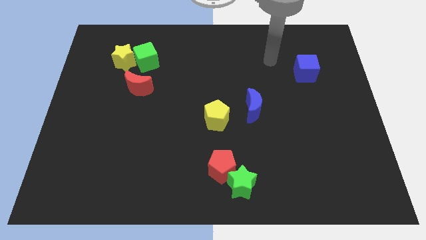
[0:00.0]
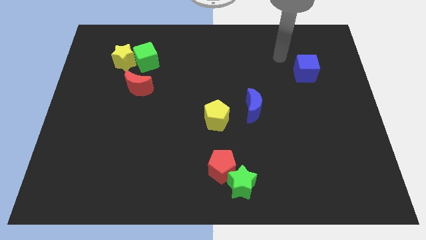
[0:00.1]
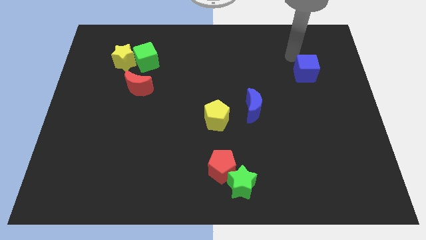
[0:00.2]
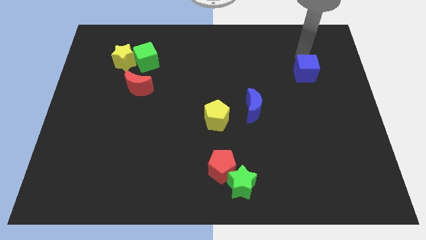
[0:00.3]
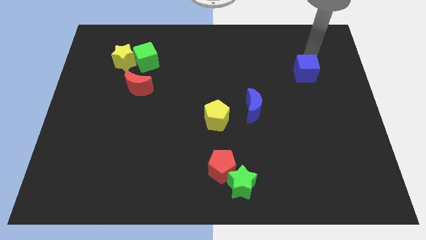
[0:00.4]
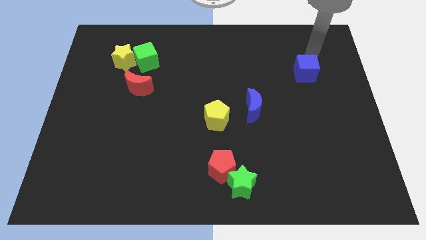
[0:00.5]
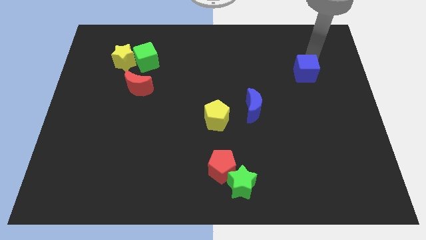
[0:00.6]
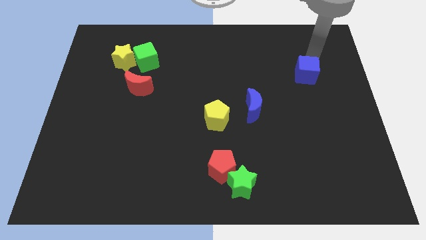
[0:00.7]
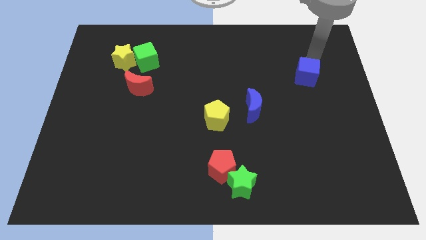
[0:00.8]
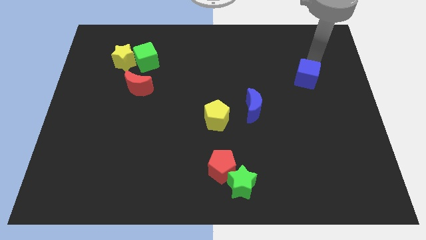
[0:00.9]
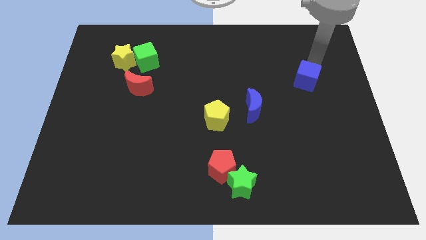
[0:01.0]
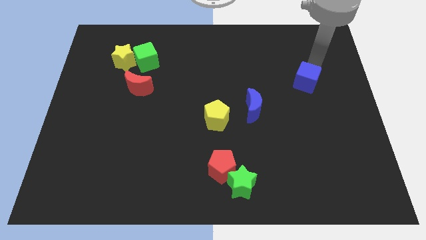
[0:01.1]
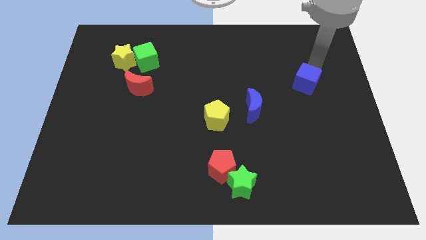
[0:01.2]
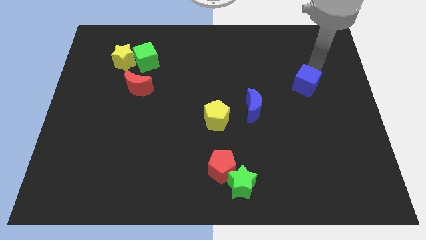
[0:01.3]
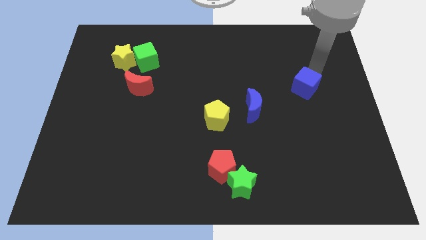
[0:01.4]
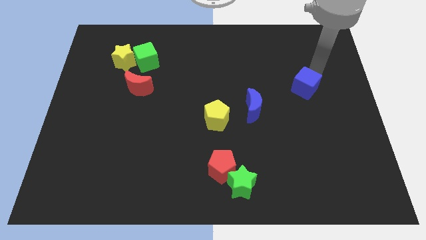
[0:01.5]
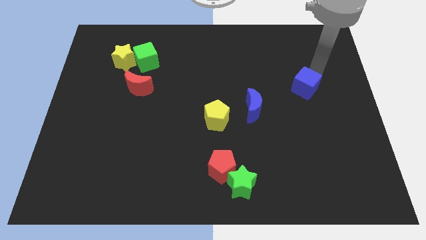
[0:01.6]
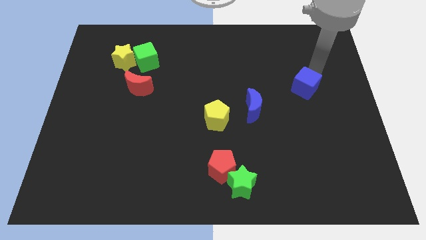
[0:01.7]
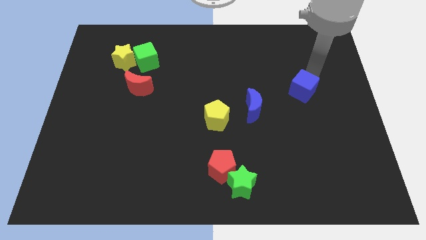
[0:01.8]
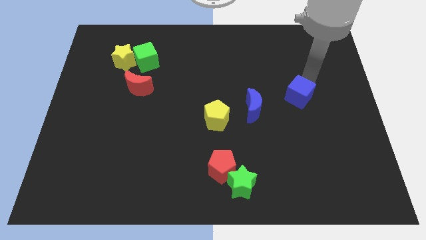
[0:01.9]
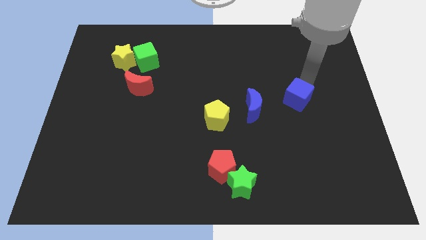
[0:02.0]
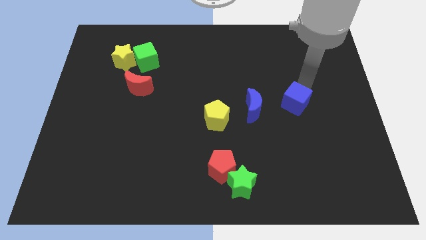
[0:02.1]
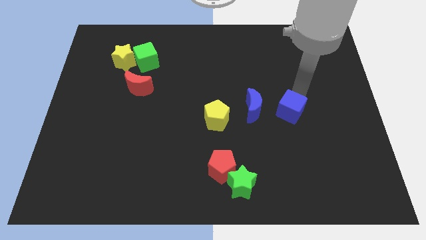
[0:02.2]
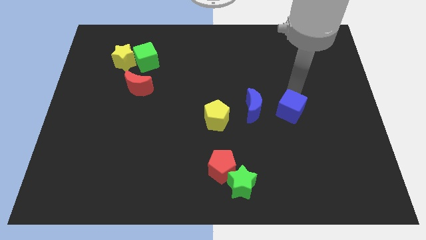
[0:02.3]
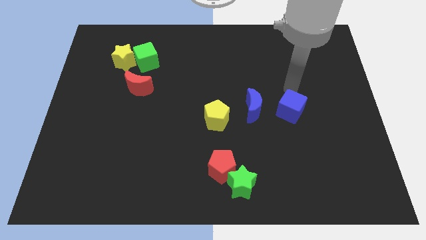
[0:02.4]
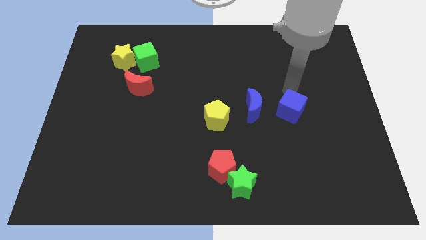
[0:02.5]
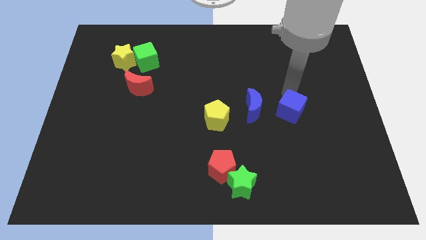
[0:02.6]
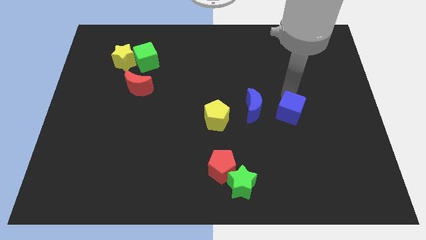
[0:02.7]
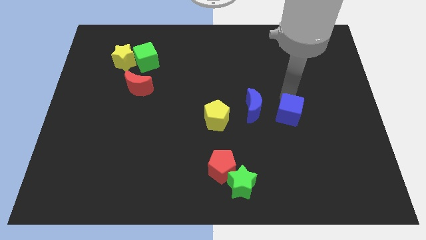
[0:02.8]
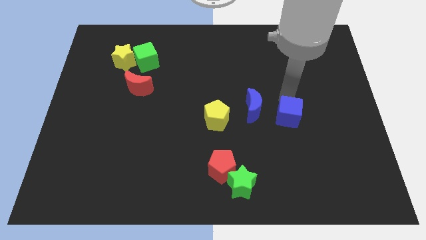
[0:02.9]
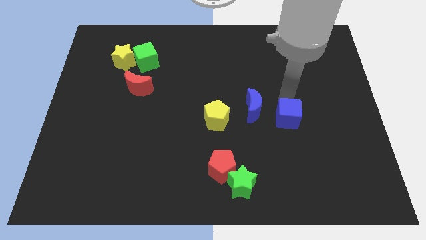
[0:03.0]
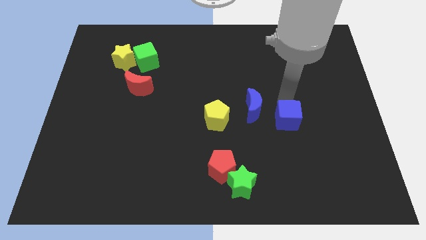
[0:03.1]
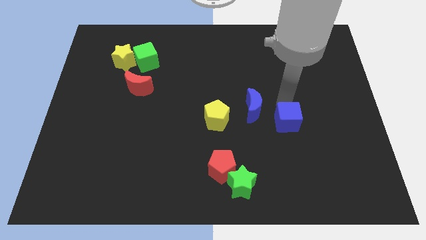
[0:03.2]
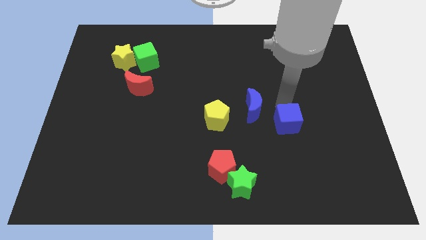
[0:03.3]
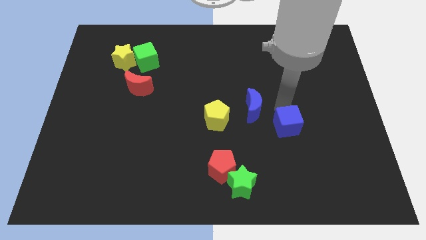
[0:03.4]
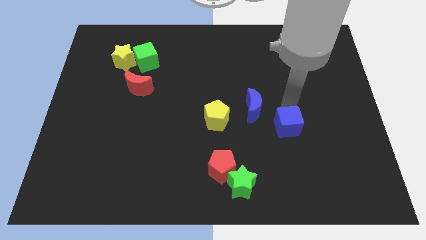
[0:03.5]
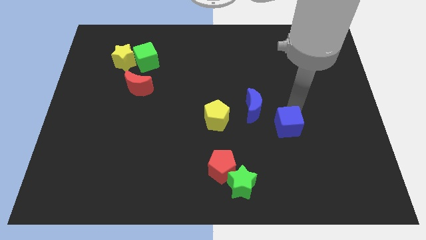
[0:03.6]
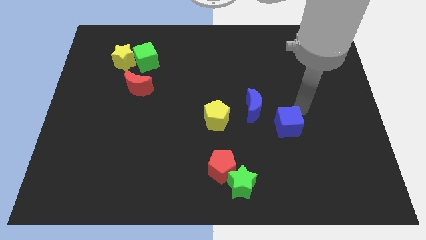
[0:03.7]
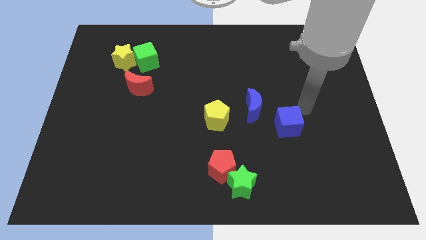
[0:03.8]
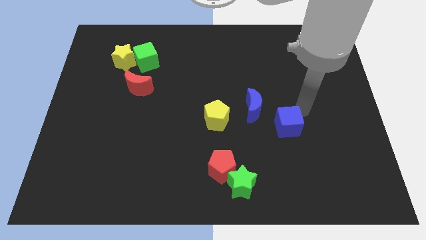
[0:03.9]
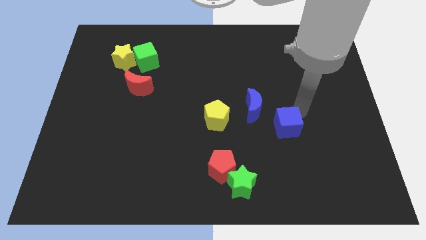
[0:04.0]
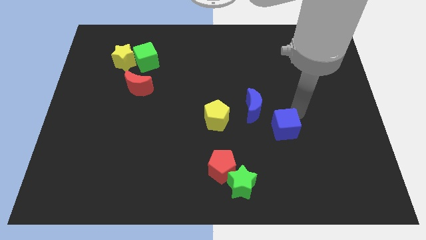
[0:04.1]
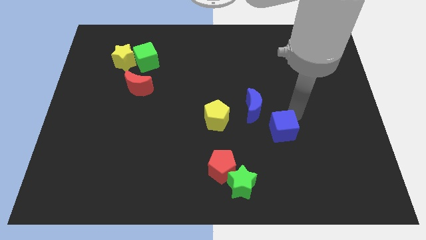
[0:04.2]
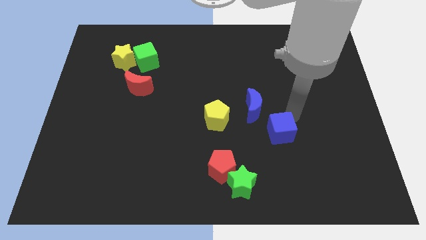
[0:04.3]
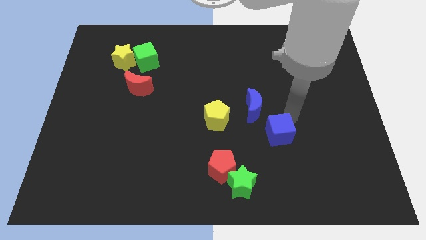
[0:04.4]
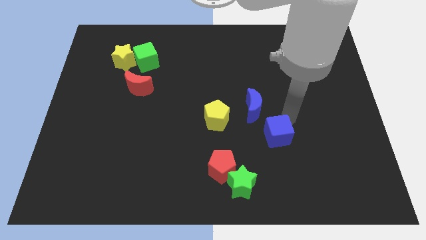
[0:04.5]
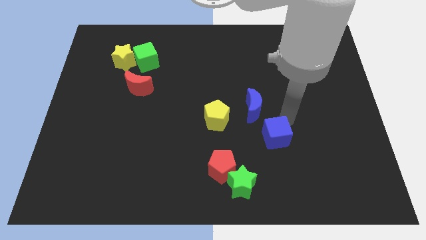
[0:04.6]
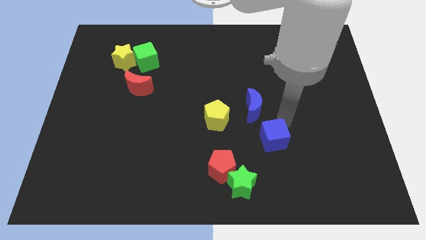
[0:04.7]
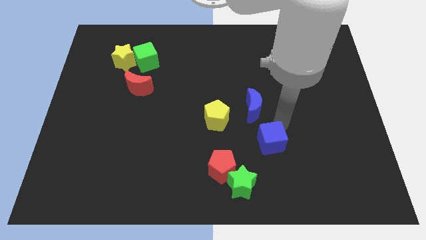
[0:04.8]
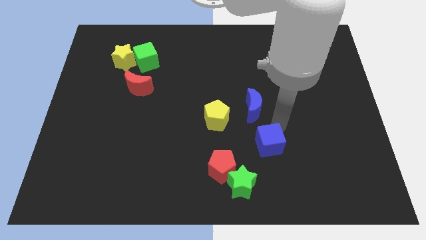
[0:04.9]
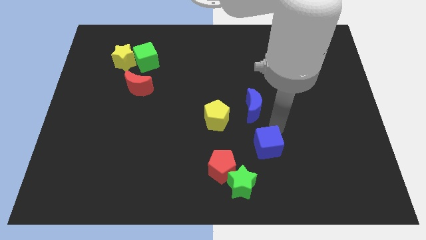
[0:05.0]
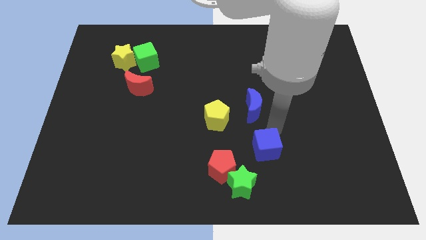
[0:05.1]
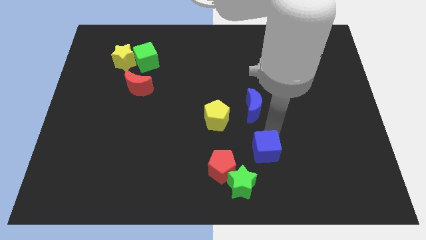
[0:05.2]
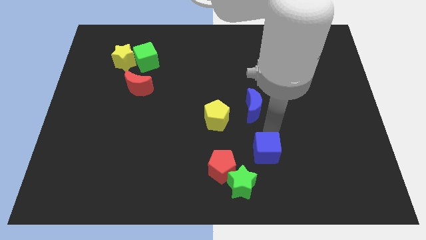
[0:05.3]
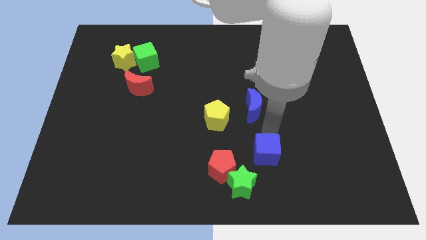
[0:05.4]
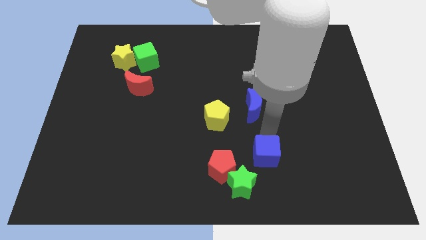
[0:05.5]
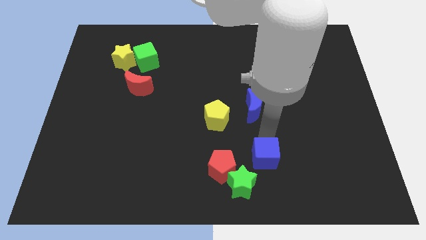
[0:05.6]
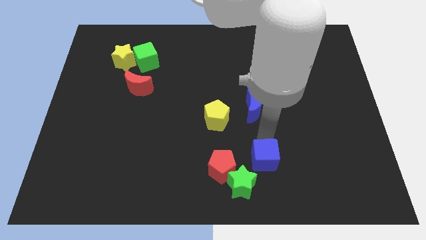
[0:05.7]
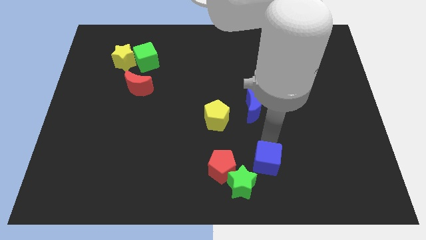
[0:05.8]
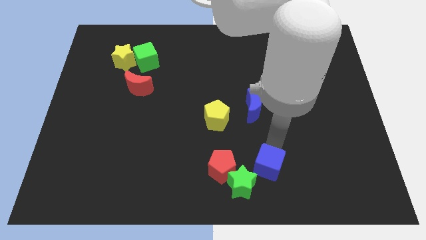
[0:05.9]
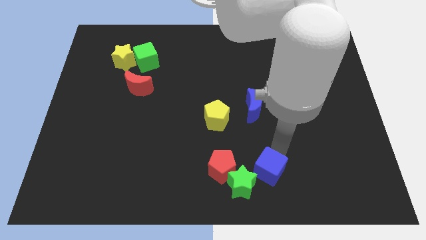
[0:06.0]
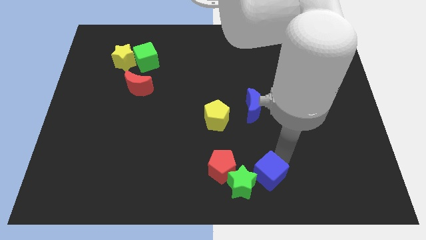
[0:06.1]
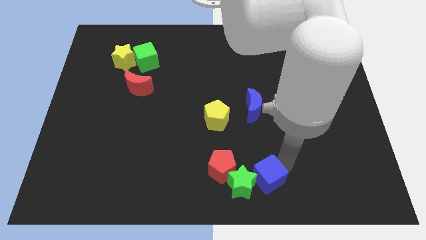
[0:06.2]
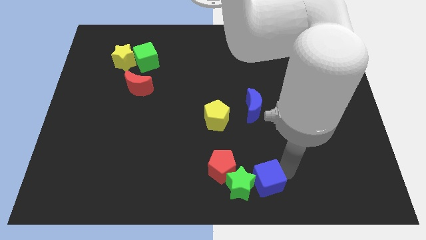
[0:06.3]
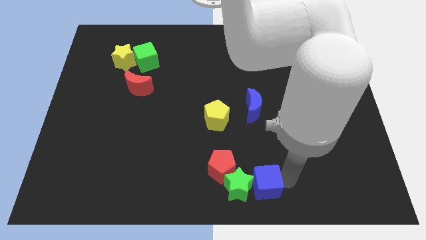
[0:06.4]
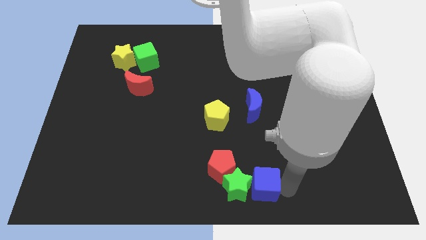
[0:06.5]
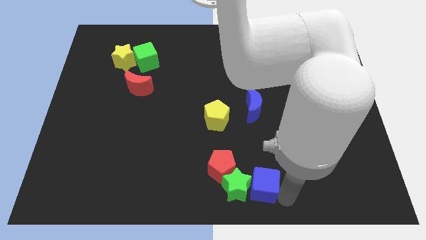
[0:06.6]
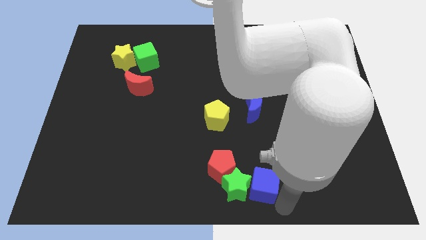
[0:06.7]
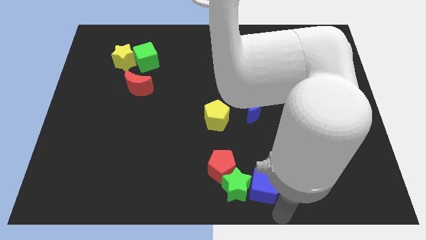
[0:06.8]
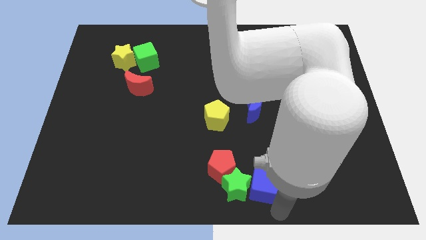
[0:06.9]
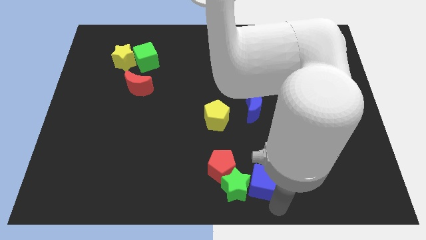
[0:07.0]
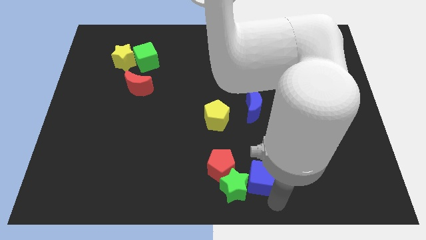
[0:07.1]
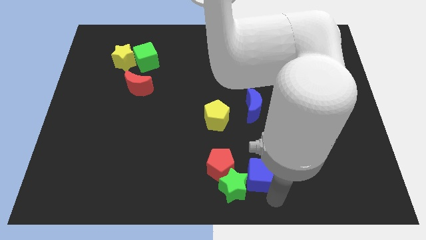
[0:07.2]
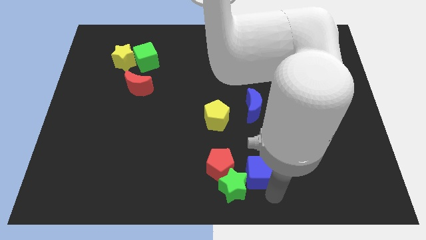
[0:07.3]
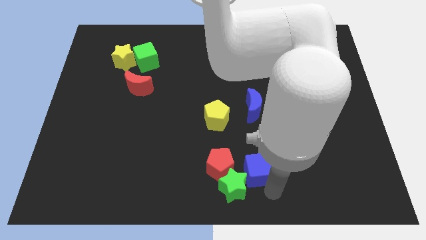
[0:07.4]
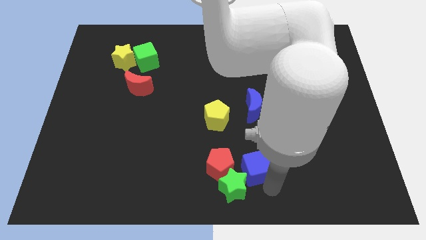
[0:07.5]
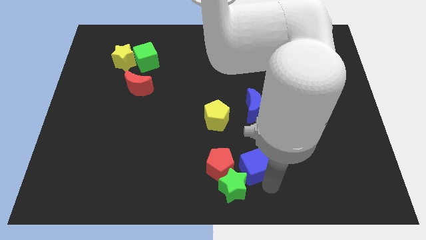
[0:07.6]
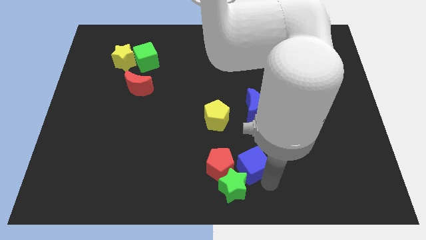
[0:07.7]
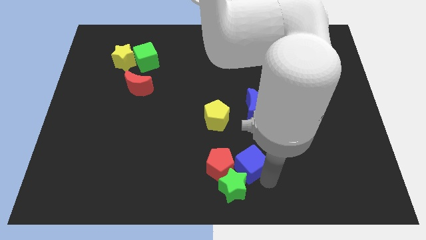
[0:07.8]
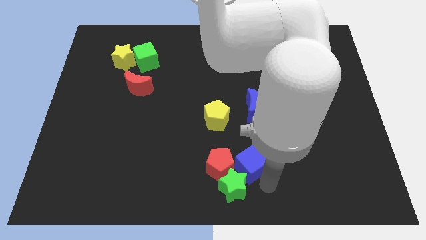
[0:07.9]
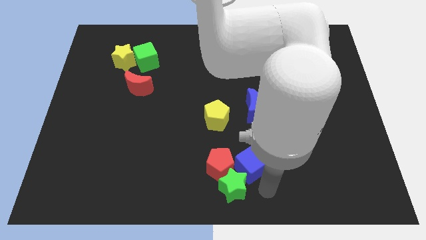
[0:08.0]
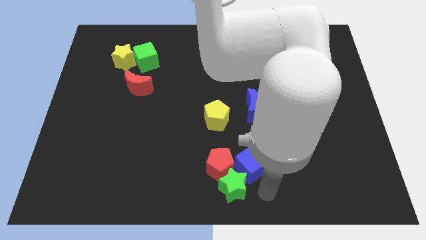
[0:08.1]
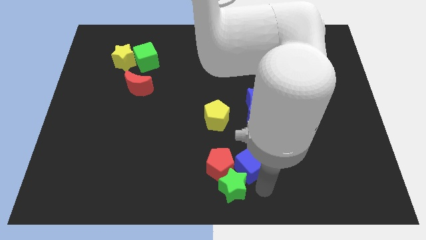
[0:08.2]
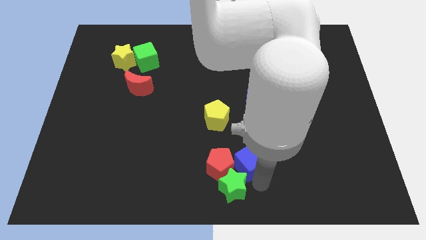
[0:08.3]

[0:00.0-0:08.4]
put the blue cube close to the red pentagon
